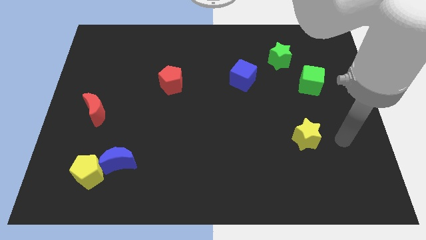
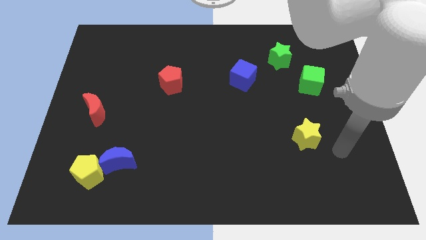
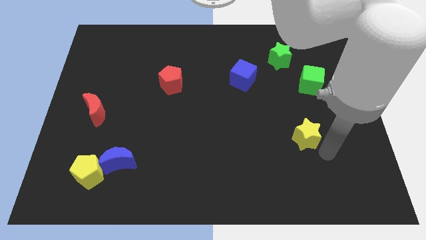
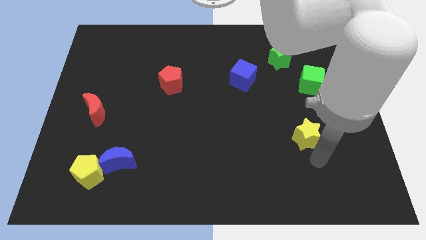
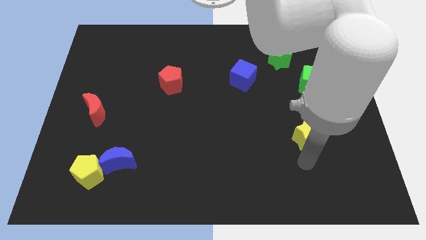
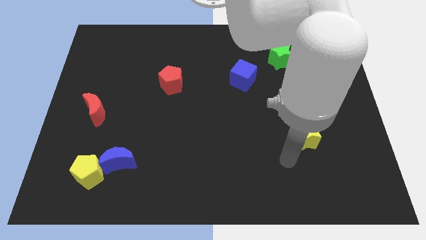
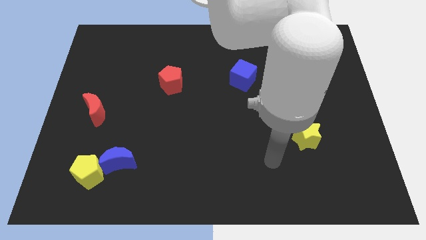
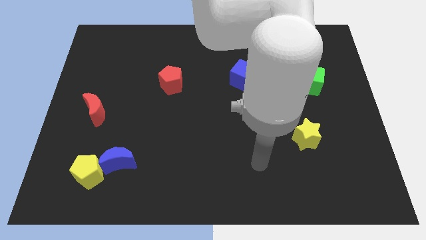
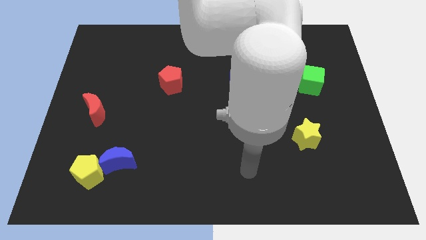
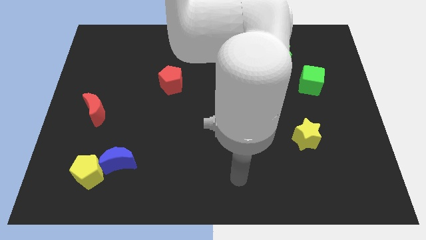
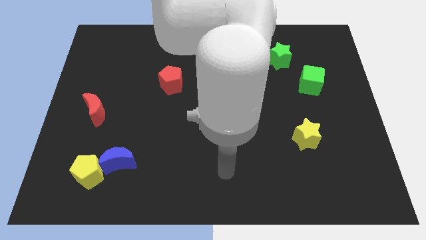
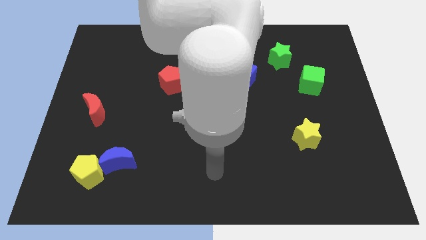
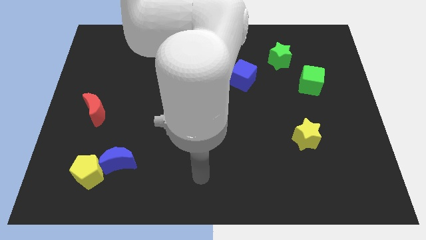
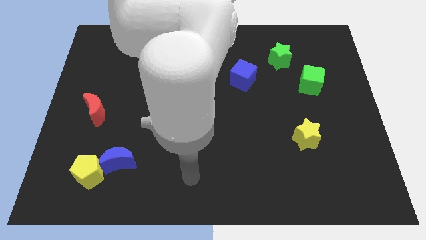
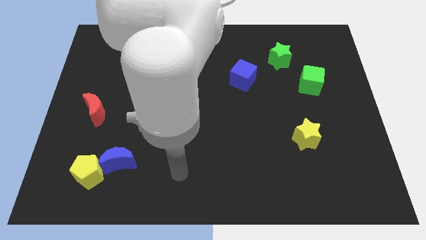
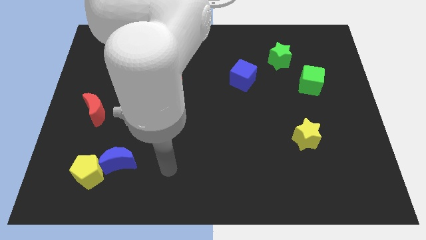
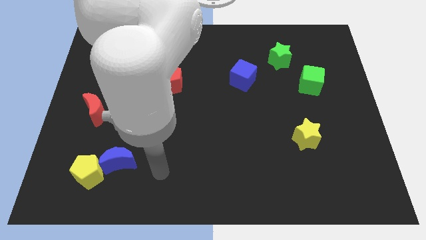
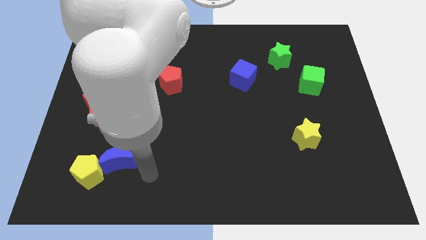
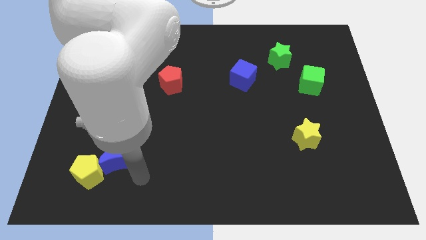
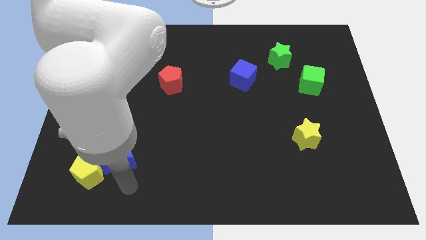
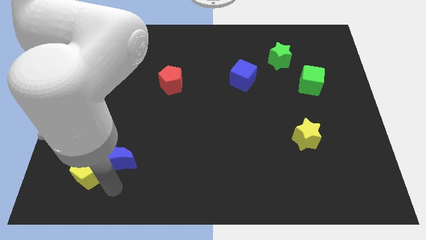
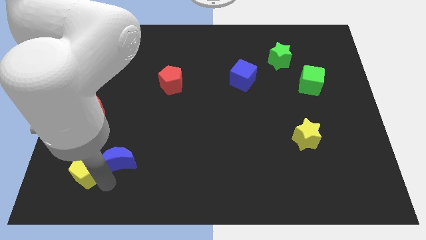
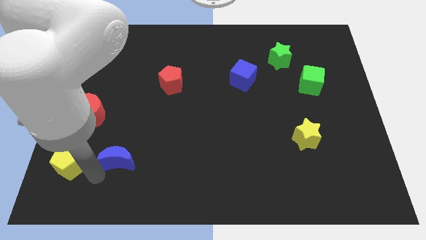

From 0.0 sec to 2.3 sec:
pull the blue moon apart from the yellow pentagon

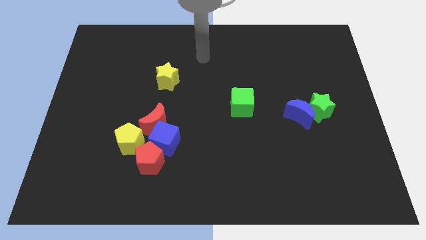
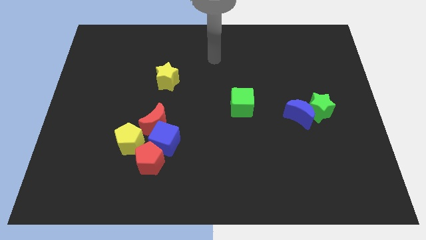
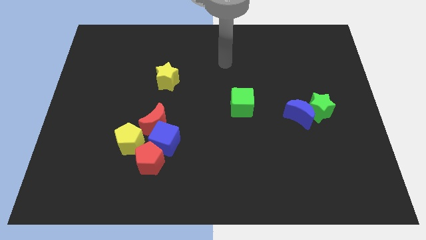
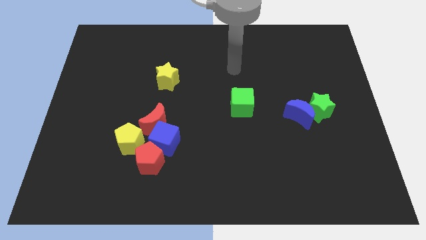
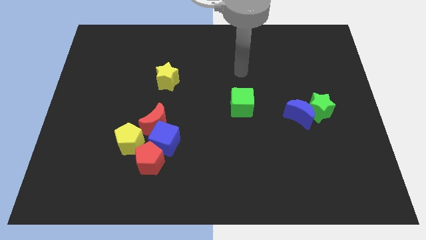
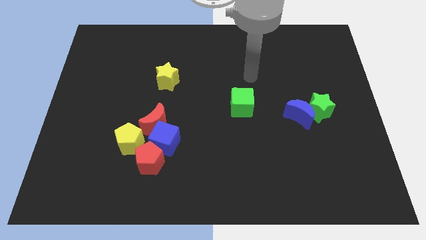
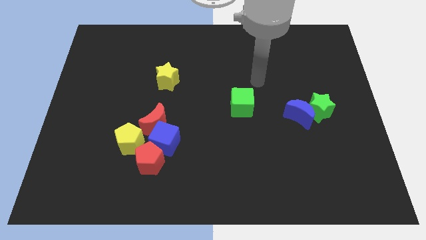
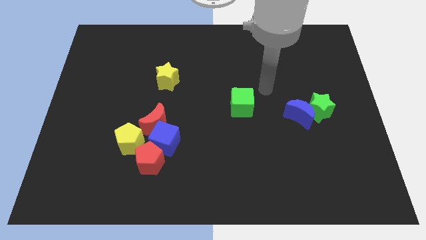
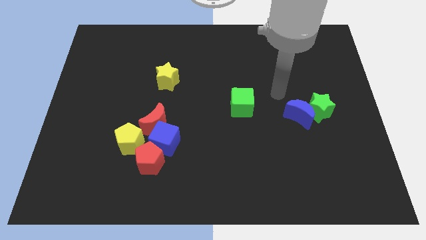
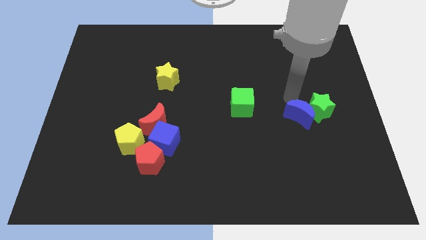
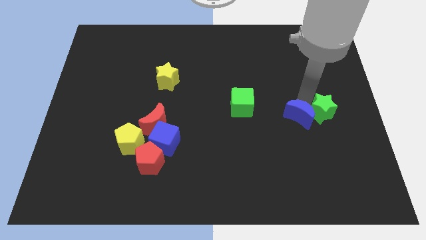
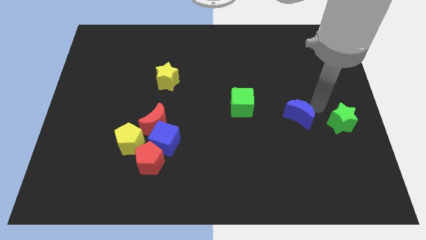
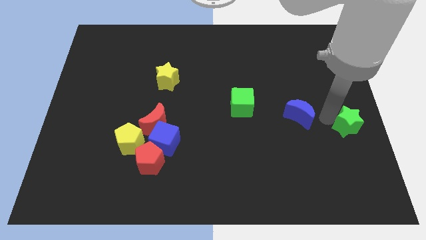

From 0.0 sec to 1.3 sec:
move the blue moon away from the green star

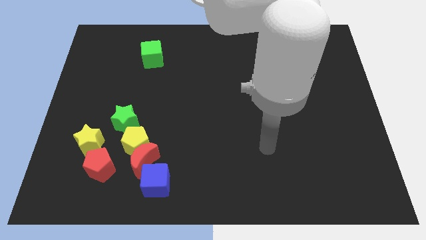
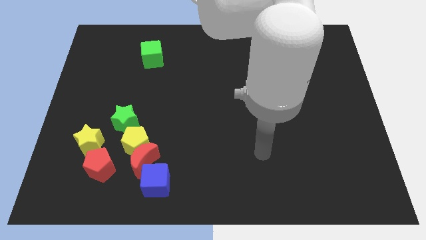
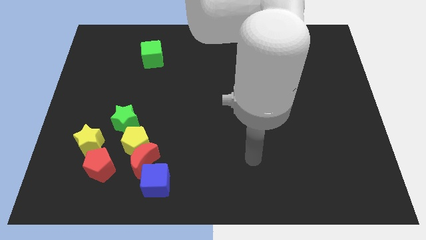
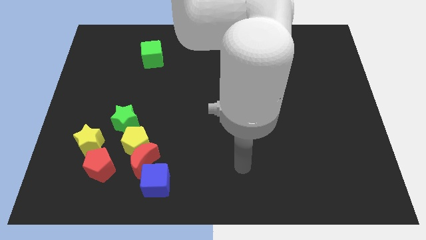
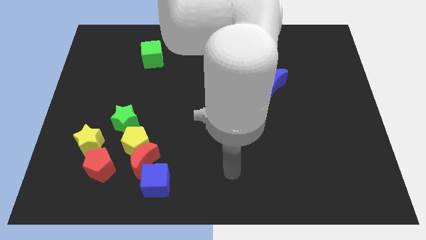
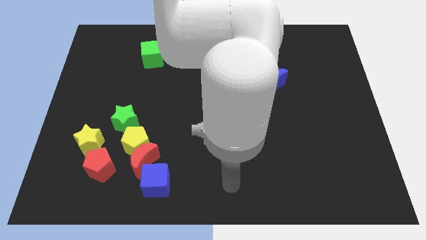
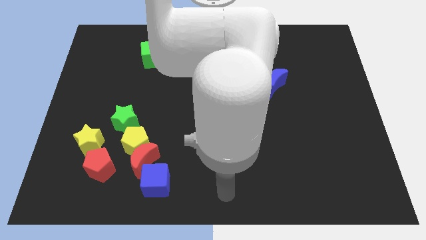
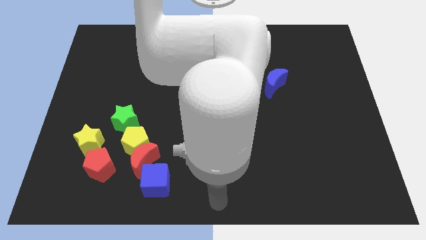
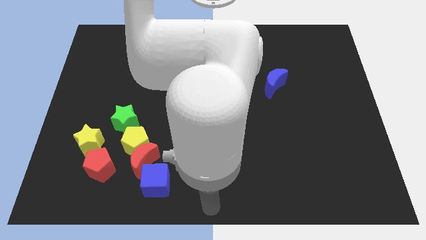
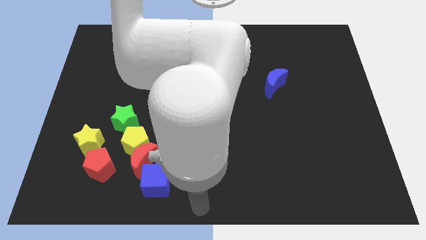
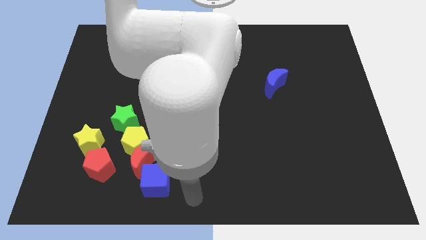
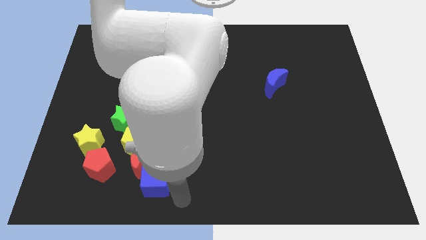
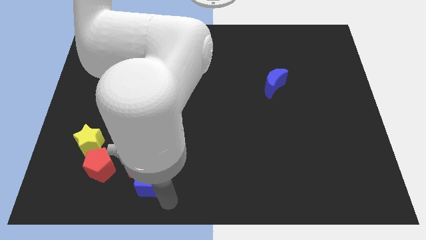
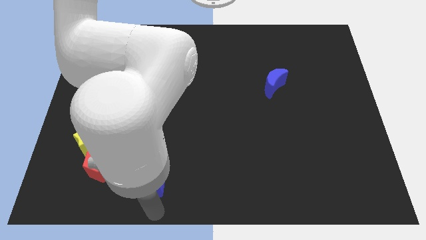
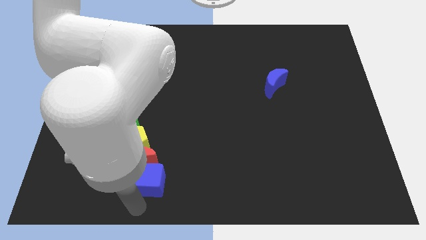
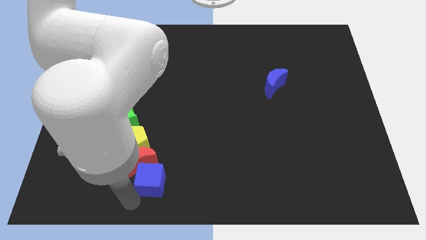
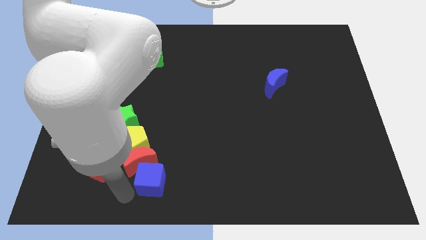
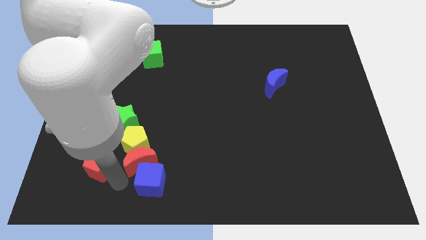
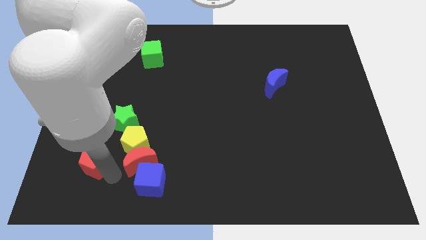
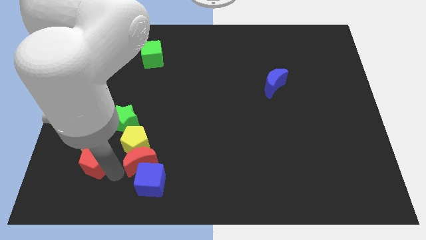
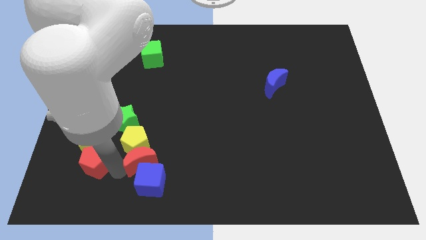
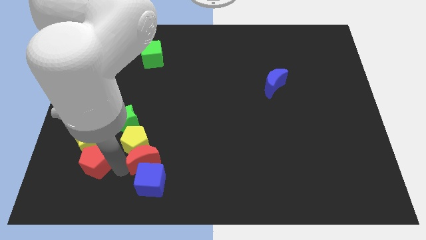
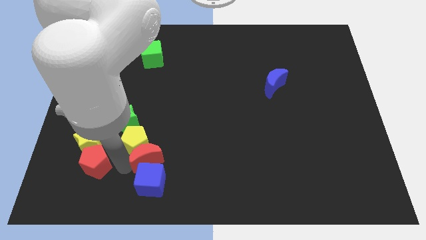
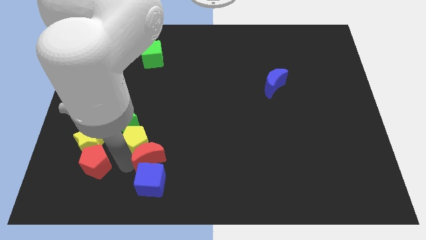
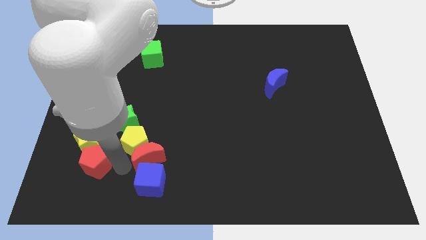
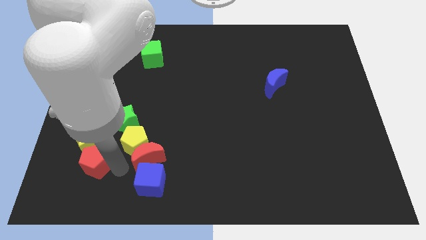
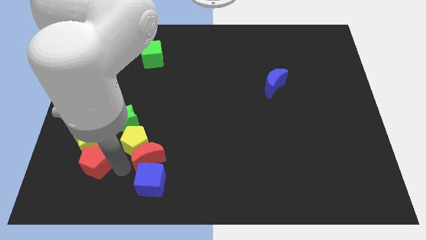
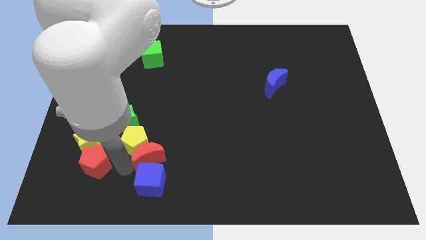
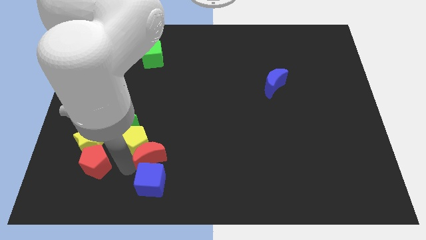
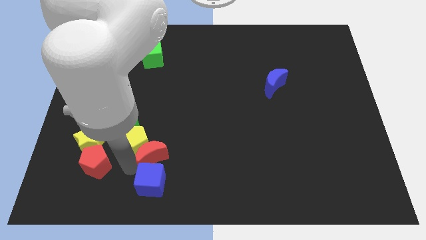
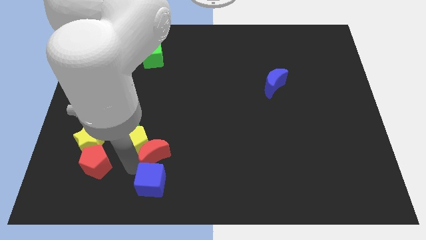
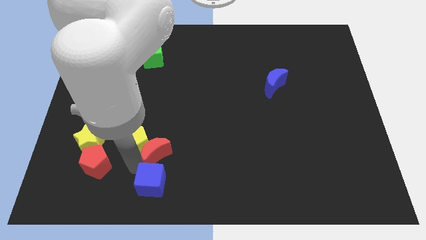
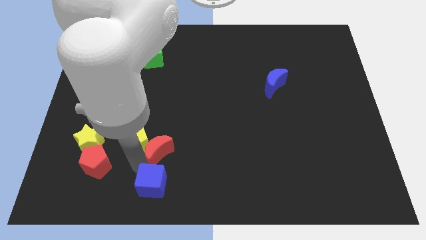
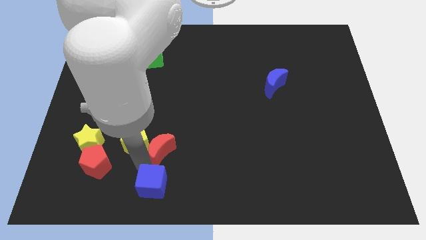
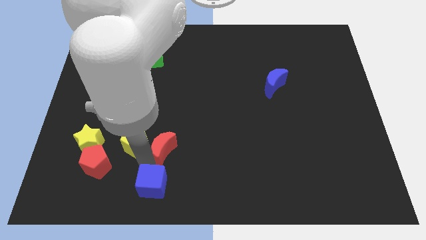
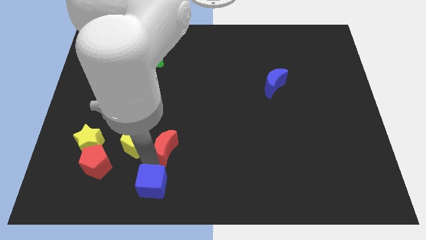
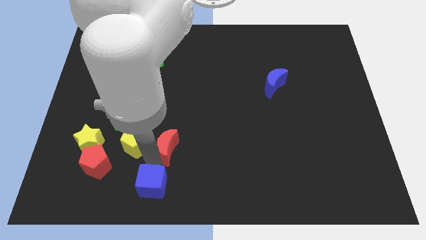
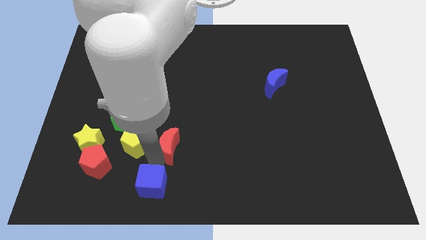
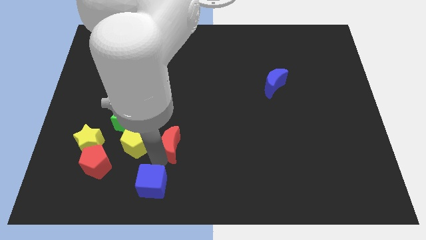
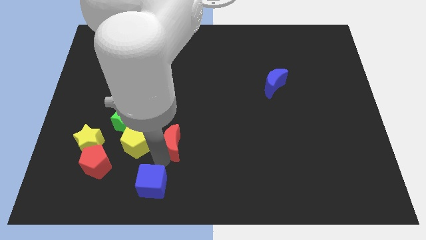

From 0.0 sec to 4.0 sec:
separate the red moon from the group

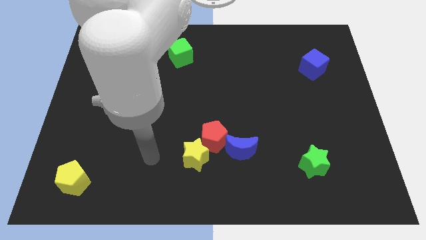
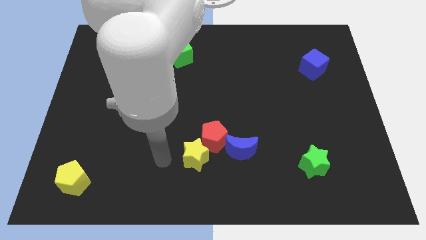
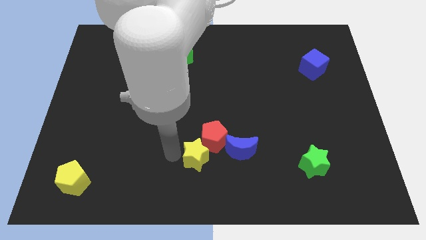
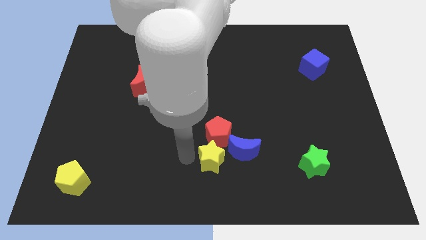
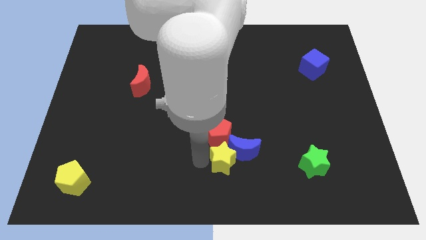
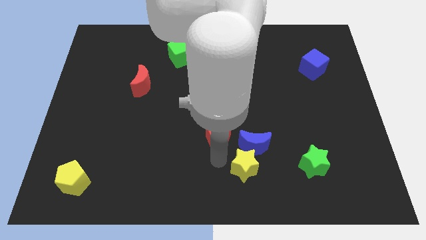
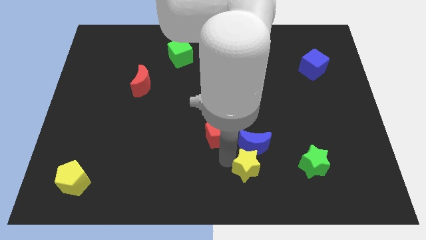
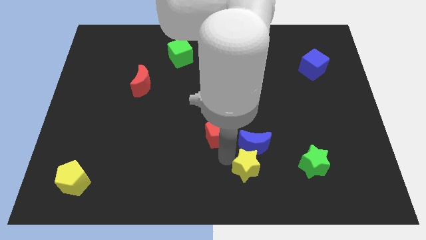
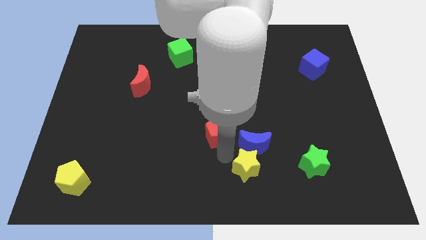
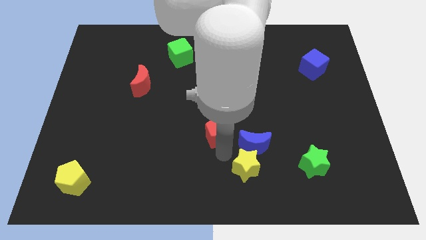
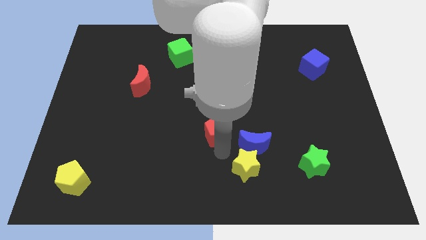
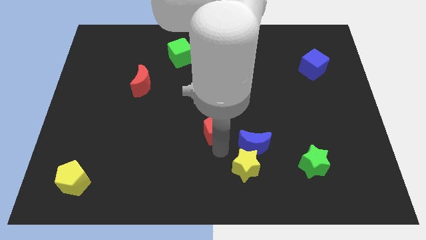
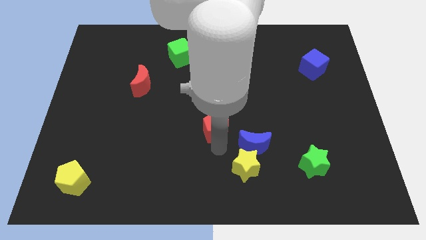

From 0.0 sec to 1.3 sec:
separate the red pentagon from the yellow star and blue moon

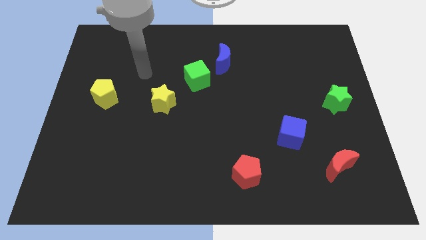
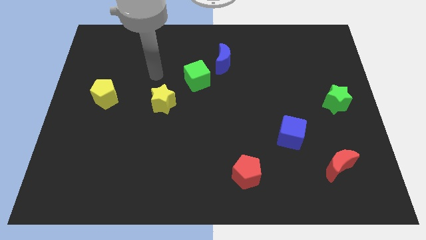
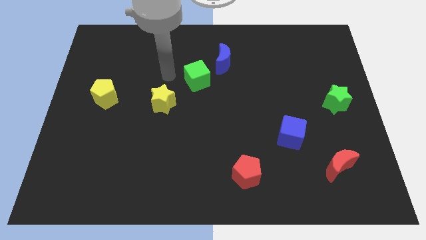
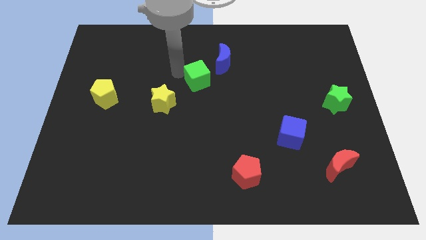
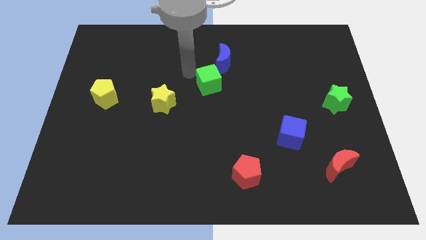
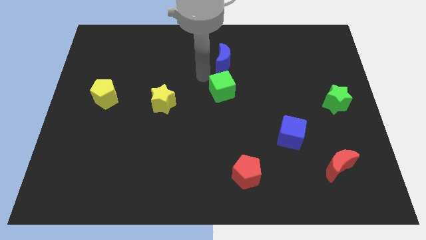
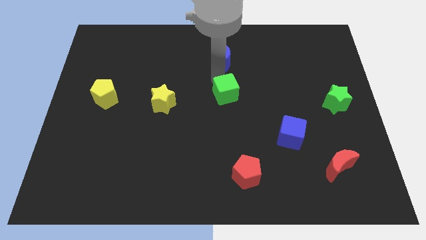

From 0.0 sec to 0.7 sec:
separate the blue moon from the green cube
